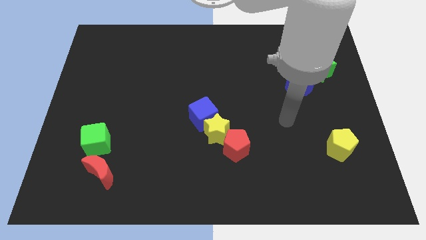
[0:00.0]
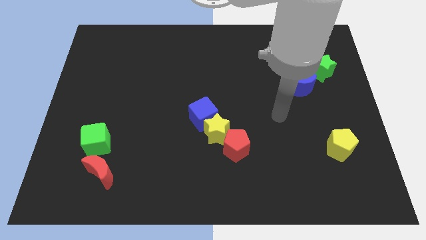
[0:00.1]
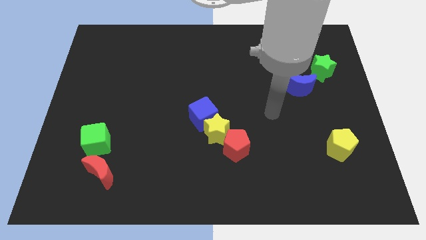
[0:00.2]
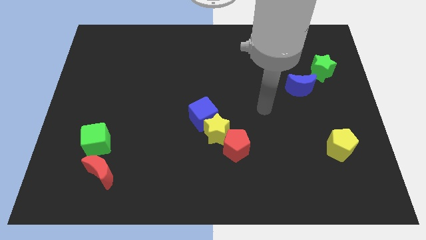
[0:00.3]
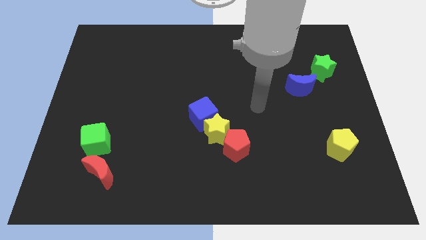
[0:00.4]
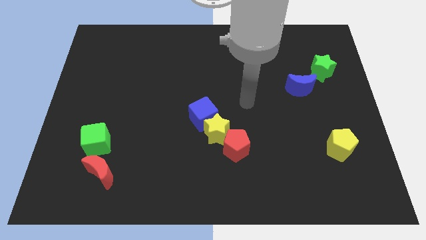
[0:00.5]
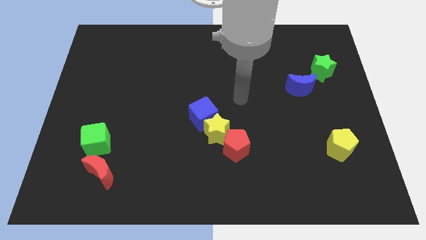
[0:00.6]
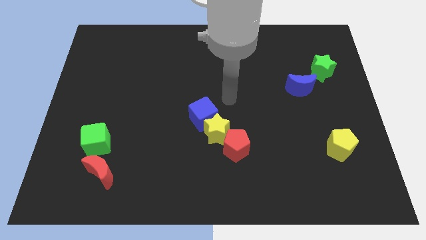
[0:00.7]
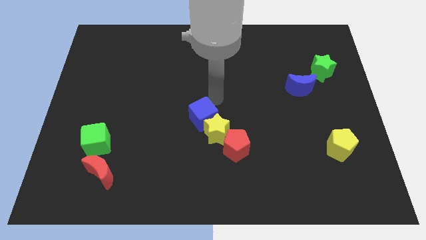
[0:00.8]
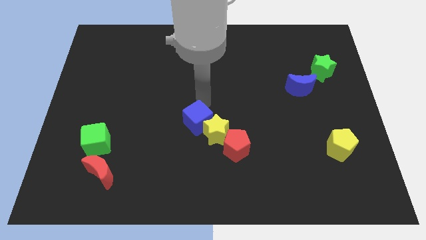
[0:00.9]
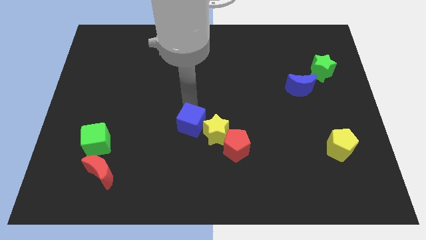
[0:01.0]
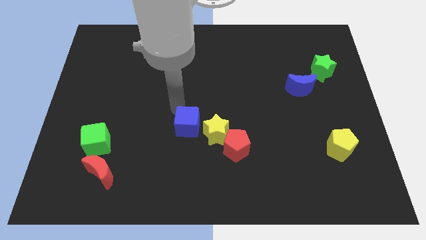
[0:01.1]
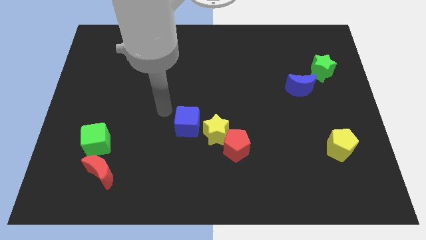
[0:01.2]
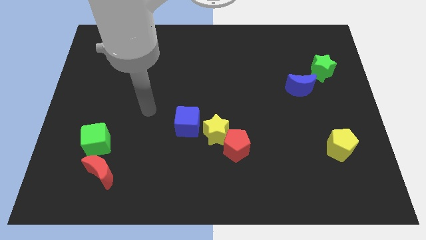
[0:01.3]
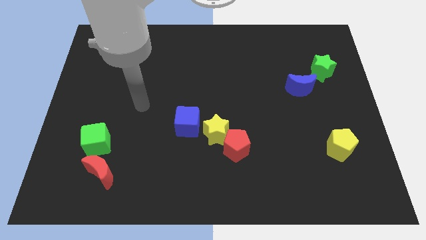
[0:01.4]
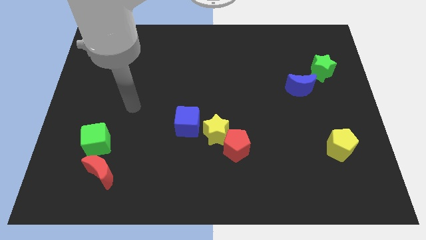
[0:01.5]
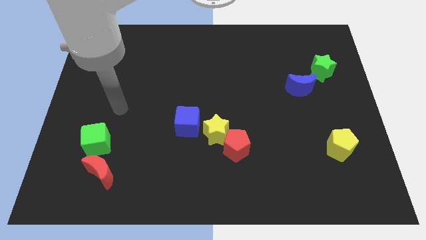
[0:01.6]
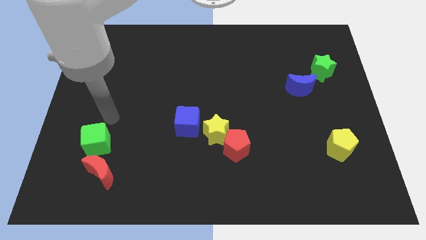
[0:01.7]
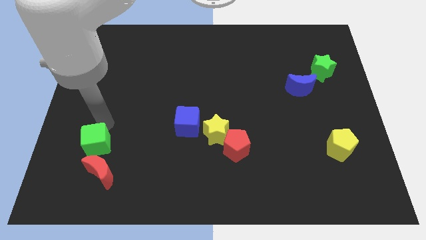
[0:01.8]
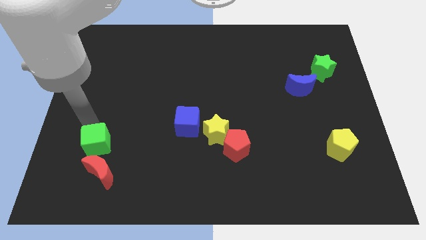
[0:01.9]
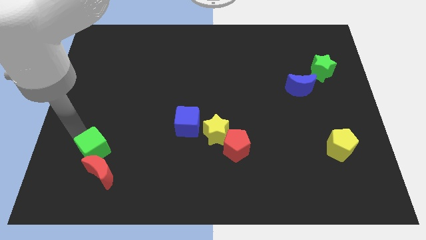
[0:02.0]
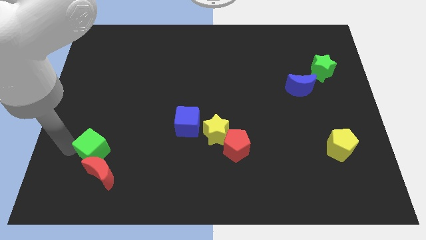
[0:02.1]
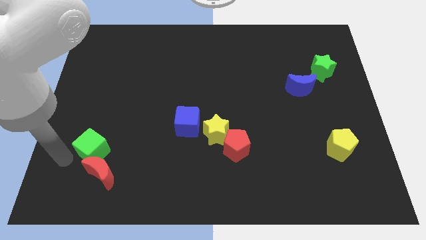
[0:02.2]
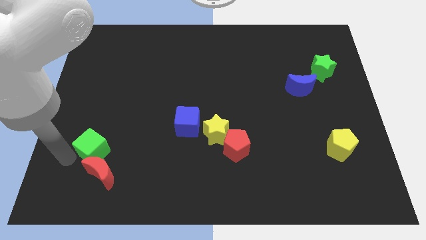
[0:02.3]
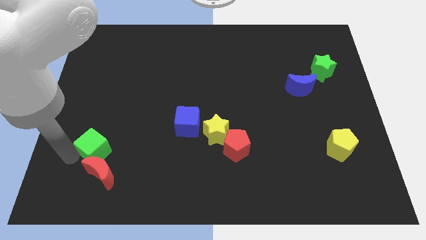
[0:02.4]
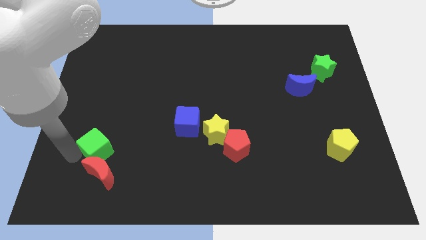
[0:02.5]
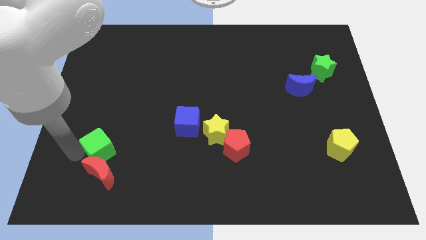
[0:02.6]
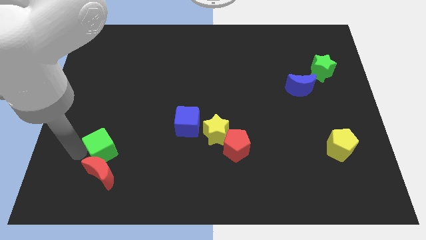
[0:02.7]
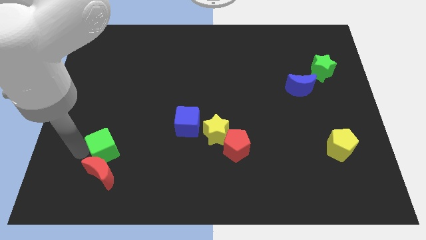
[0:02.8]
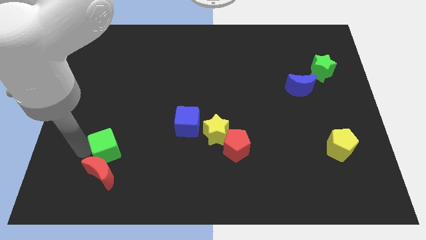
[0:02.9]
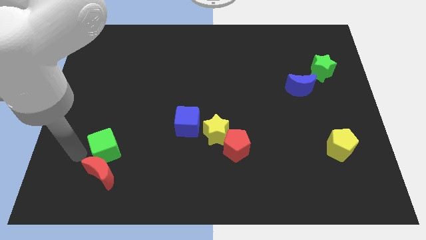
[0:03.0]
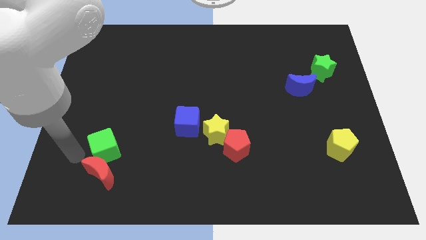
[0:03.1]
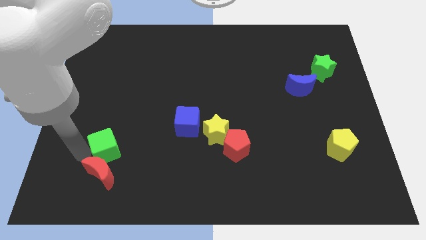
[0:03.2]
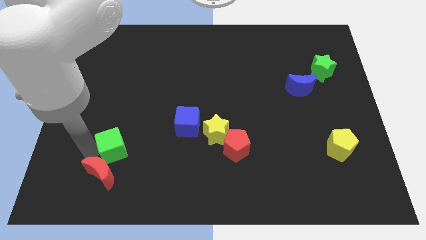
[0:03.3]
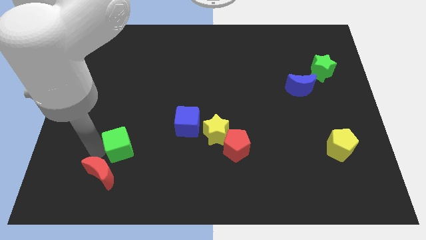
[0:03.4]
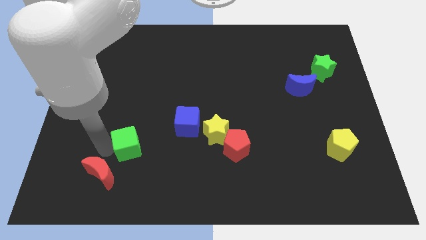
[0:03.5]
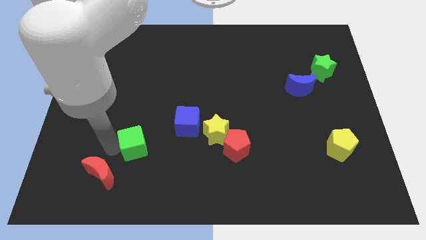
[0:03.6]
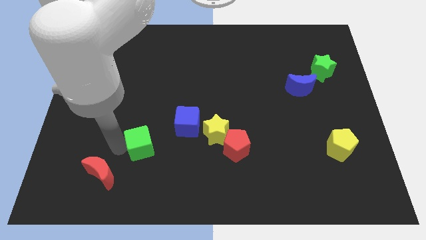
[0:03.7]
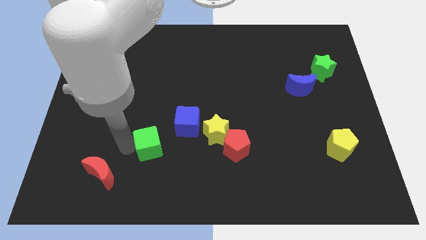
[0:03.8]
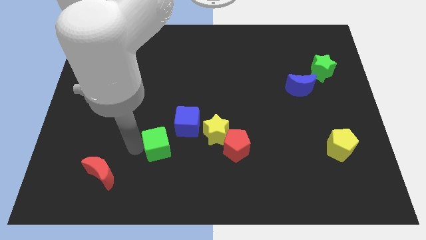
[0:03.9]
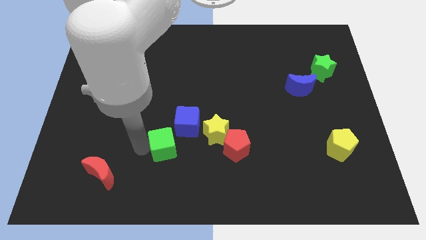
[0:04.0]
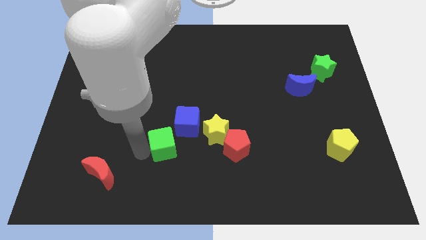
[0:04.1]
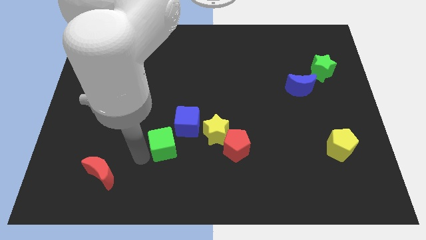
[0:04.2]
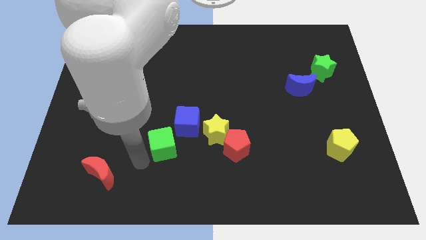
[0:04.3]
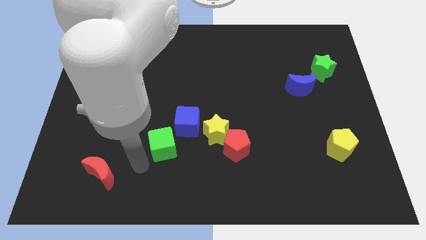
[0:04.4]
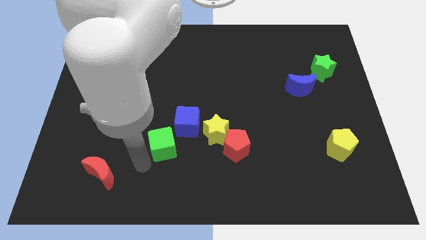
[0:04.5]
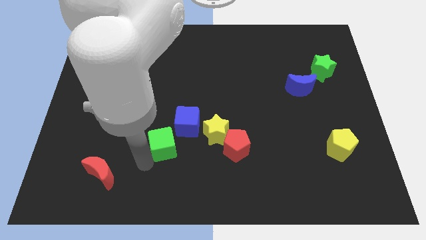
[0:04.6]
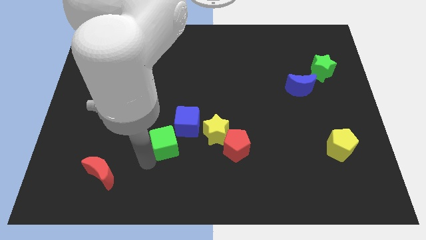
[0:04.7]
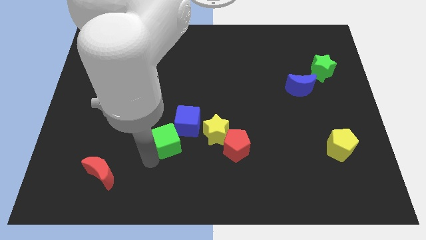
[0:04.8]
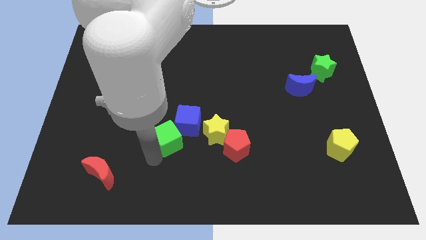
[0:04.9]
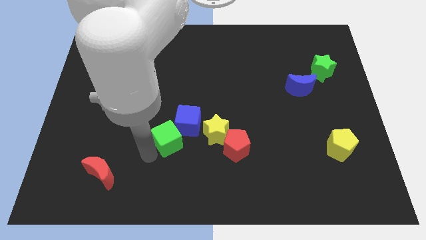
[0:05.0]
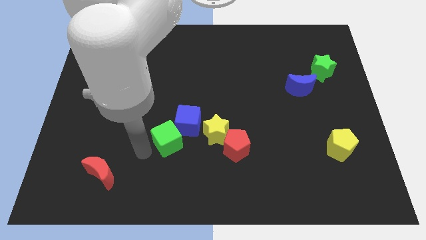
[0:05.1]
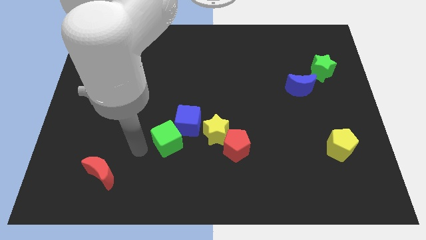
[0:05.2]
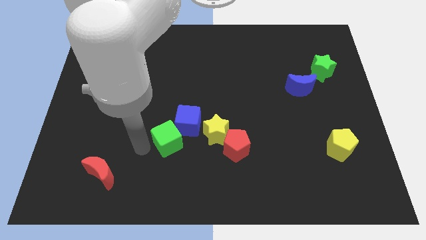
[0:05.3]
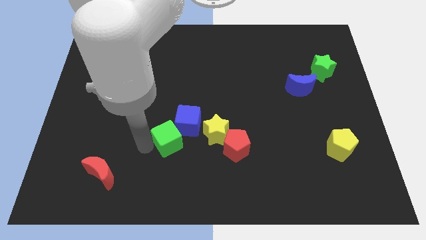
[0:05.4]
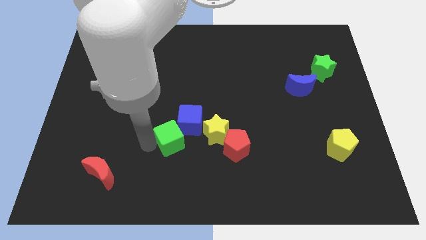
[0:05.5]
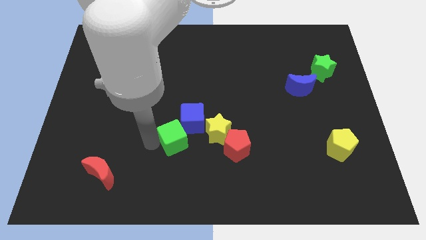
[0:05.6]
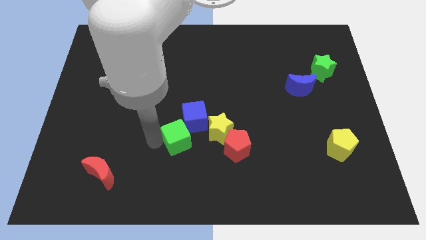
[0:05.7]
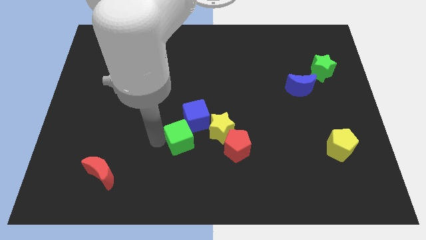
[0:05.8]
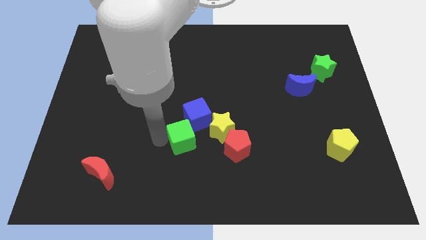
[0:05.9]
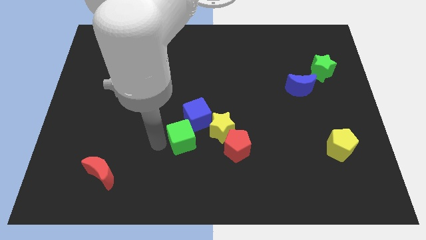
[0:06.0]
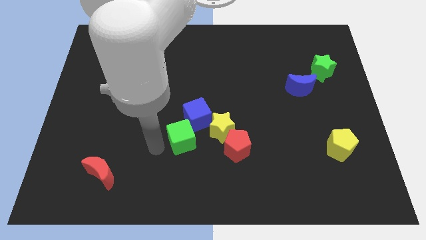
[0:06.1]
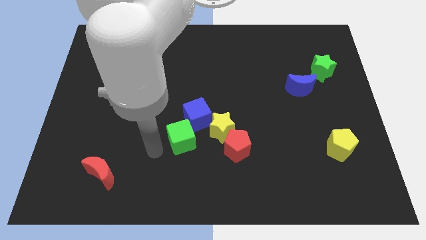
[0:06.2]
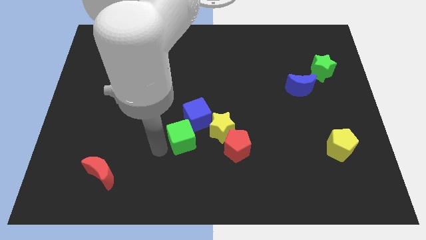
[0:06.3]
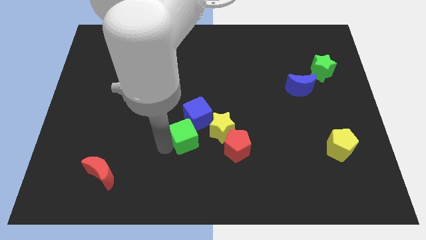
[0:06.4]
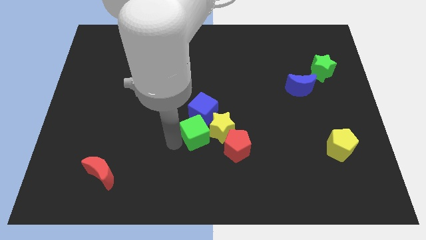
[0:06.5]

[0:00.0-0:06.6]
slide the green cube to the yellow star

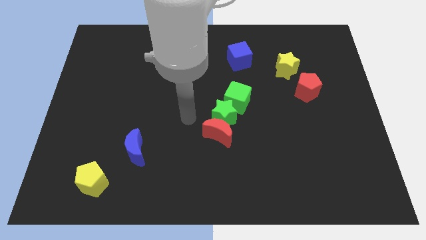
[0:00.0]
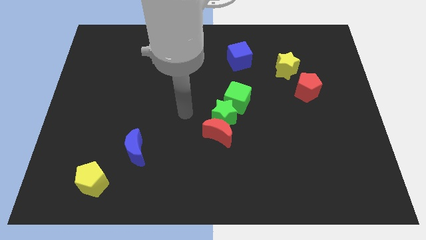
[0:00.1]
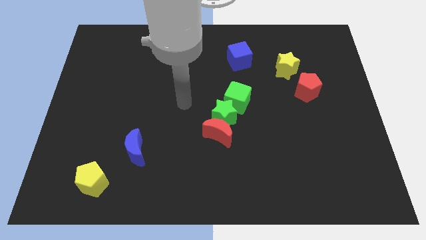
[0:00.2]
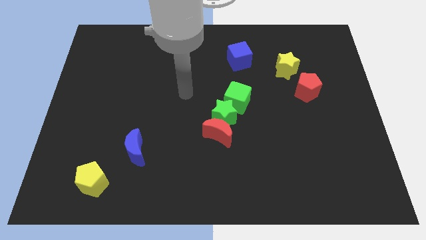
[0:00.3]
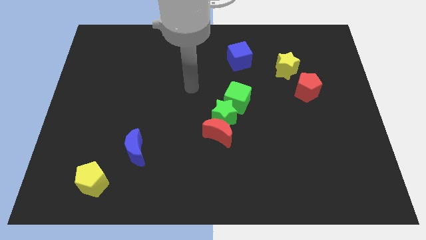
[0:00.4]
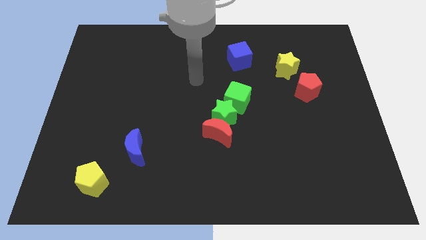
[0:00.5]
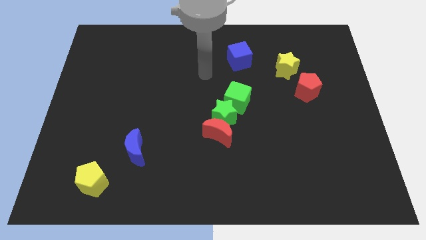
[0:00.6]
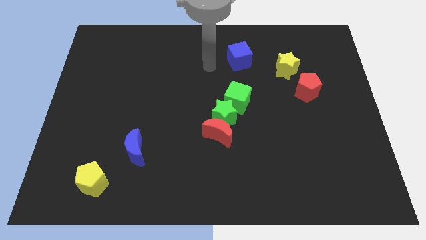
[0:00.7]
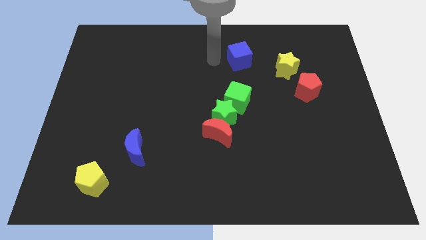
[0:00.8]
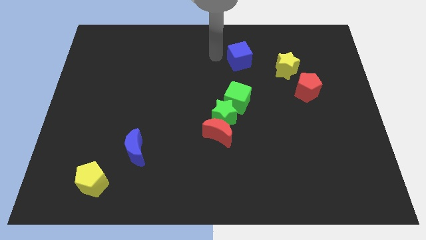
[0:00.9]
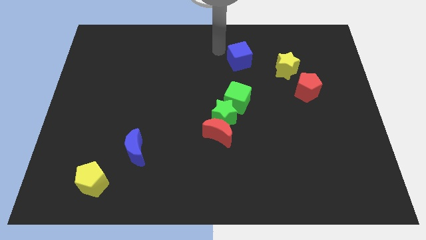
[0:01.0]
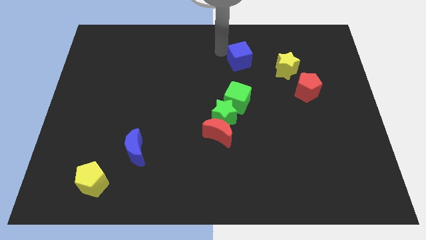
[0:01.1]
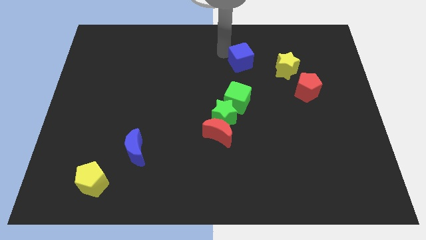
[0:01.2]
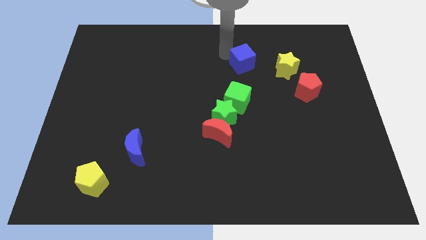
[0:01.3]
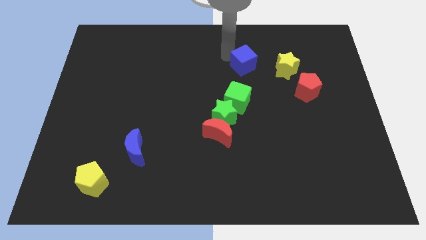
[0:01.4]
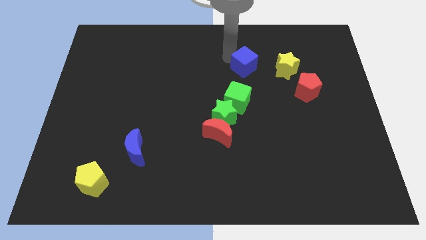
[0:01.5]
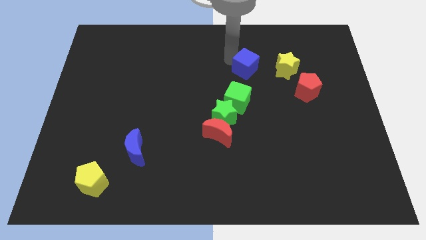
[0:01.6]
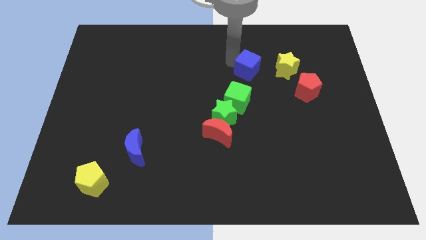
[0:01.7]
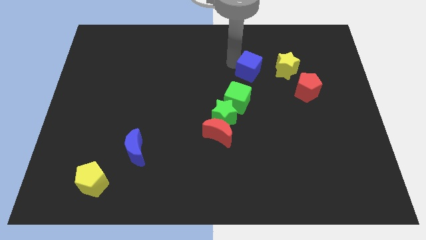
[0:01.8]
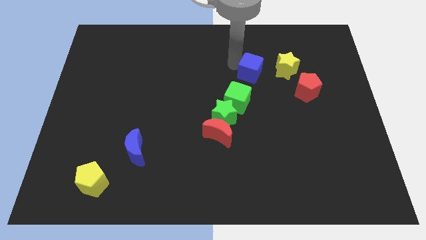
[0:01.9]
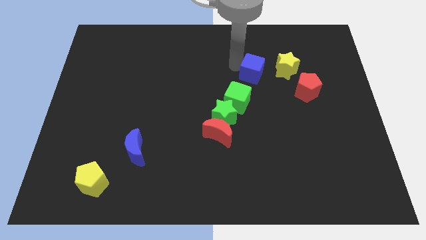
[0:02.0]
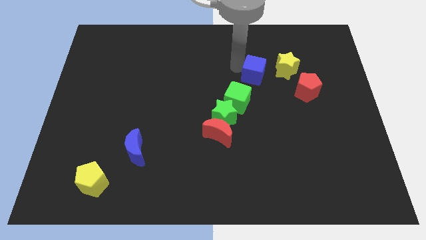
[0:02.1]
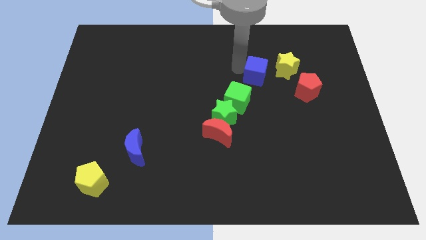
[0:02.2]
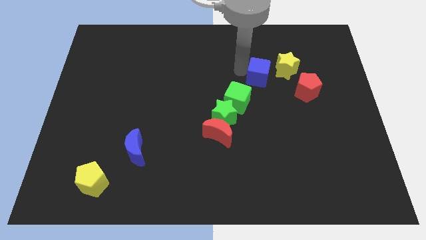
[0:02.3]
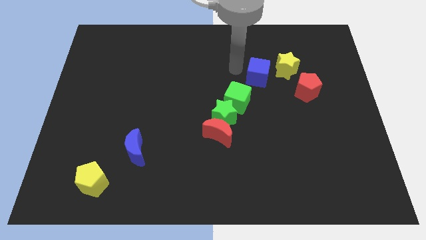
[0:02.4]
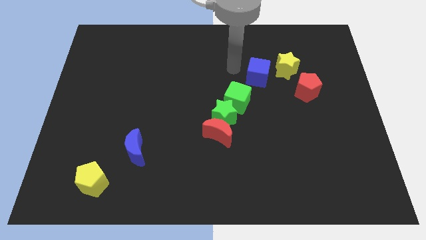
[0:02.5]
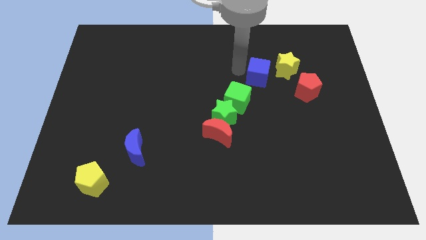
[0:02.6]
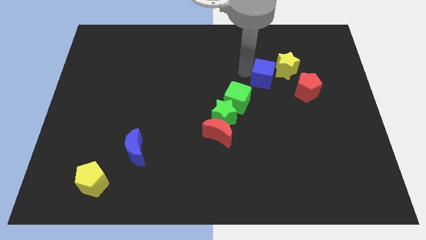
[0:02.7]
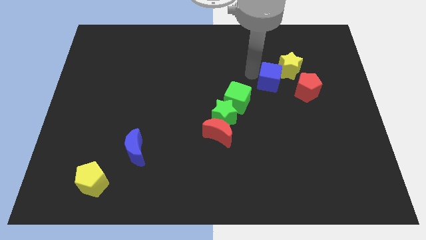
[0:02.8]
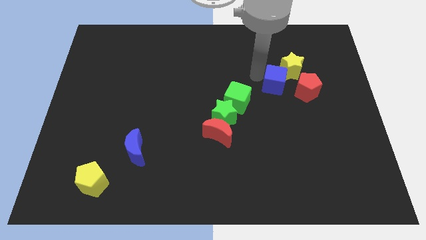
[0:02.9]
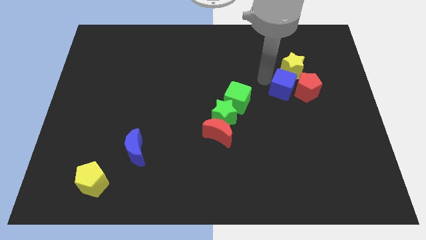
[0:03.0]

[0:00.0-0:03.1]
move the blue cube towards the red pentagon
